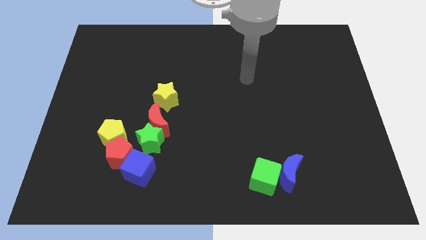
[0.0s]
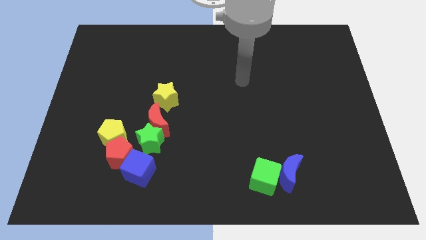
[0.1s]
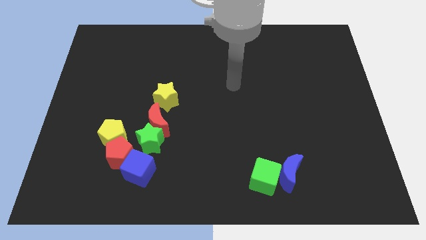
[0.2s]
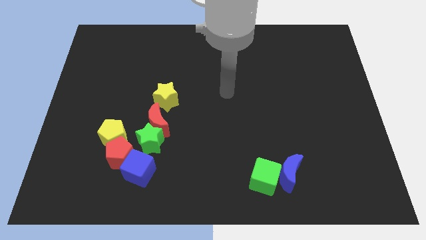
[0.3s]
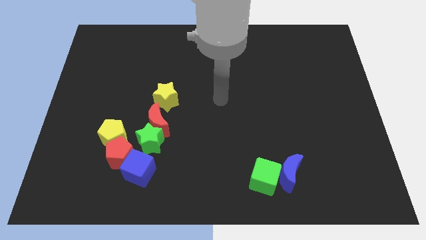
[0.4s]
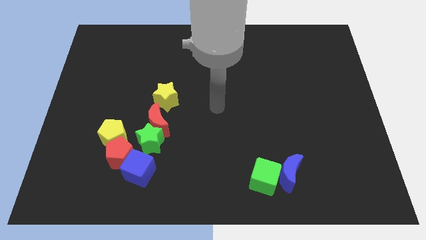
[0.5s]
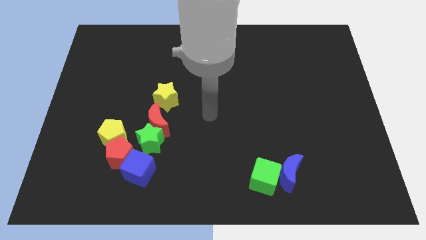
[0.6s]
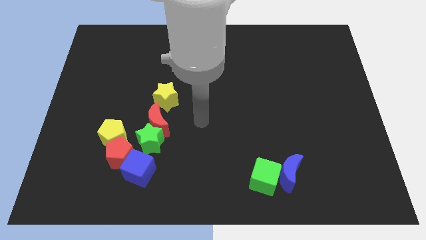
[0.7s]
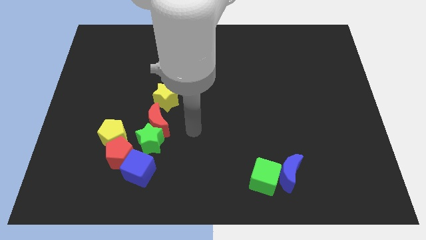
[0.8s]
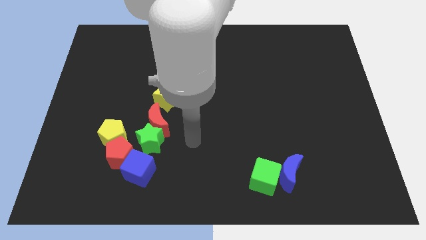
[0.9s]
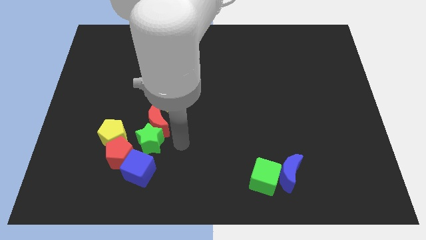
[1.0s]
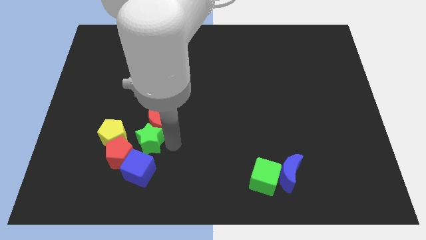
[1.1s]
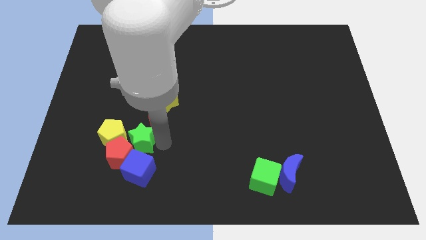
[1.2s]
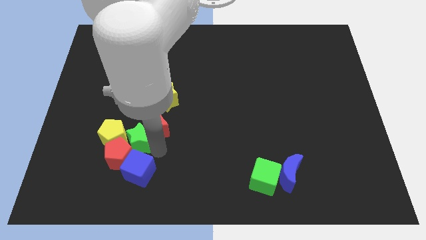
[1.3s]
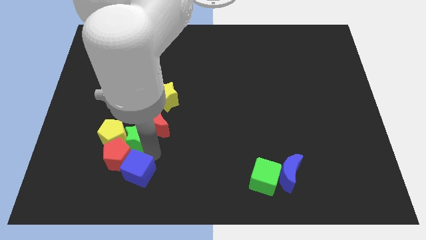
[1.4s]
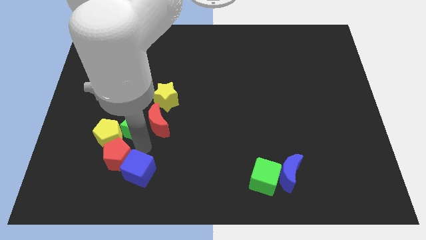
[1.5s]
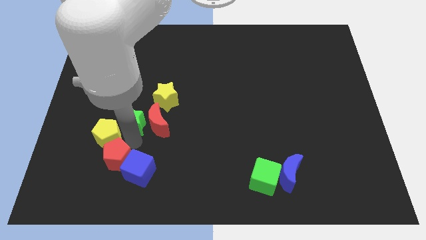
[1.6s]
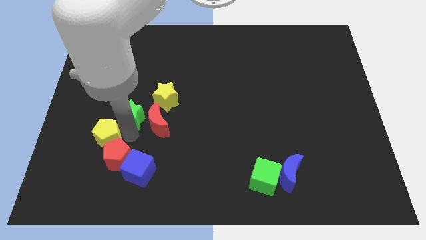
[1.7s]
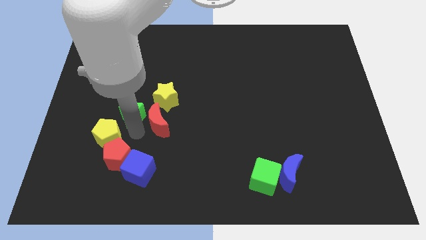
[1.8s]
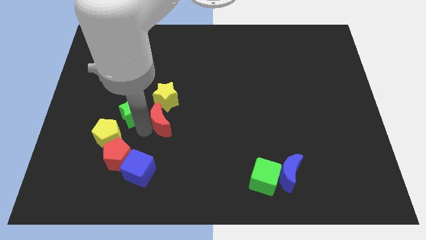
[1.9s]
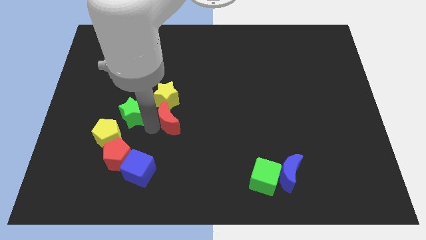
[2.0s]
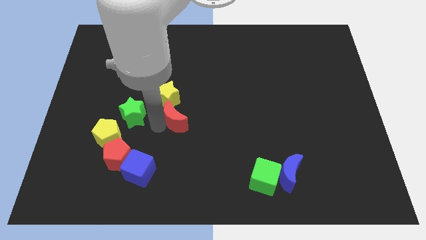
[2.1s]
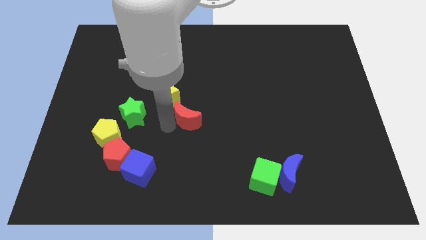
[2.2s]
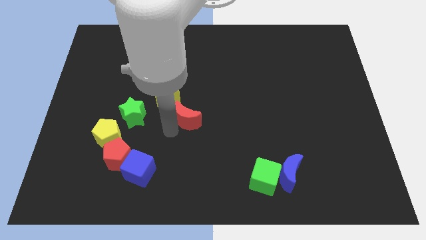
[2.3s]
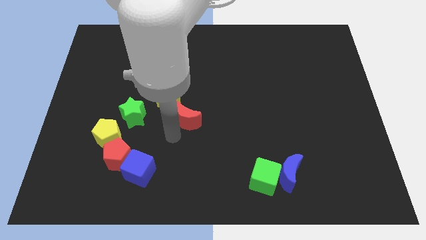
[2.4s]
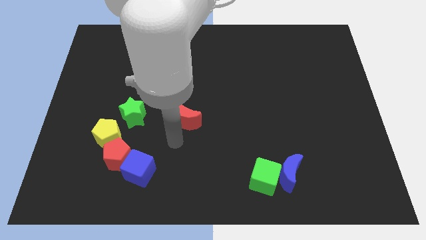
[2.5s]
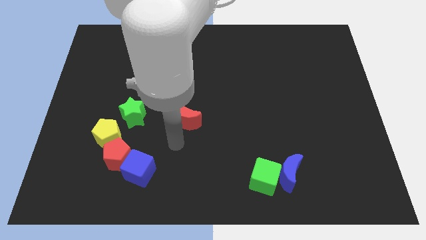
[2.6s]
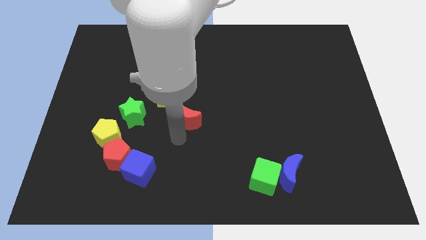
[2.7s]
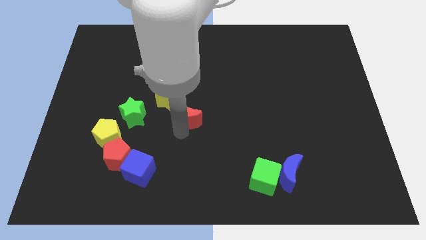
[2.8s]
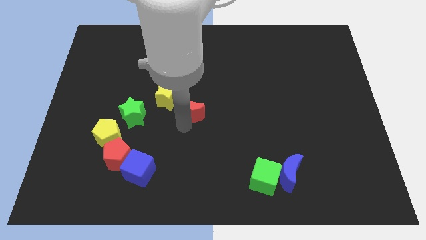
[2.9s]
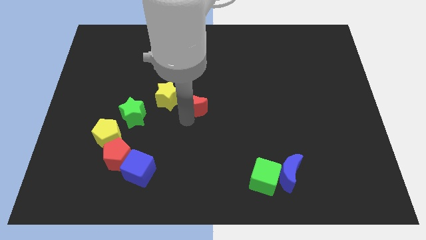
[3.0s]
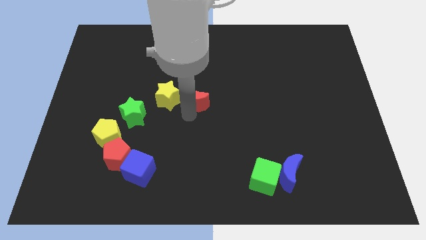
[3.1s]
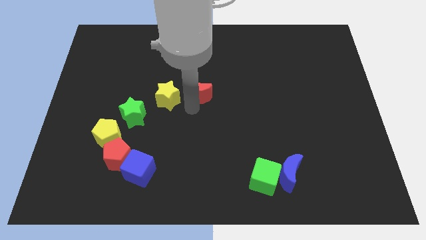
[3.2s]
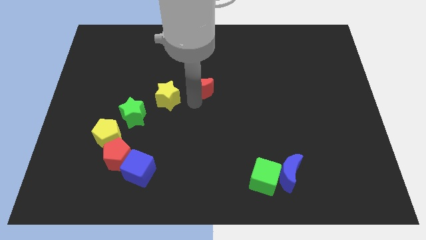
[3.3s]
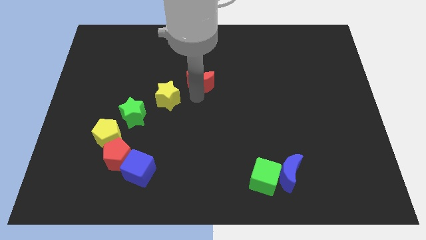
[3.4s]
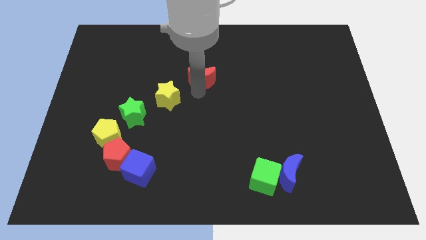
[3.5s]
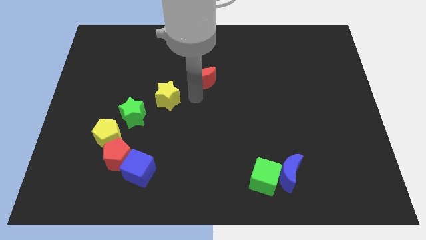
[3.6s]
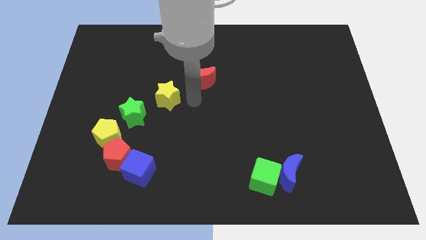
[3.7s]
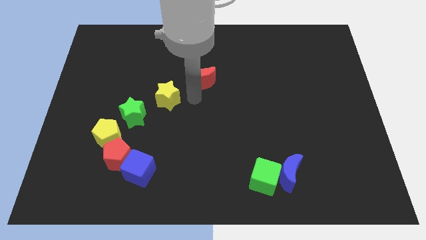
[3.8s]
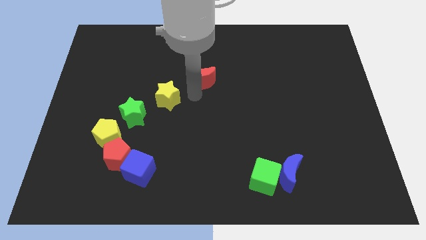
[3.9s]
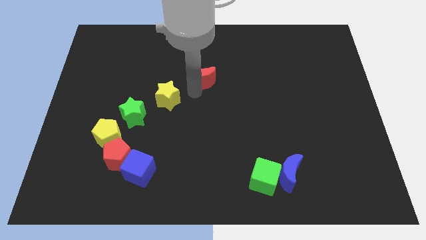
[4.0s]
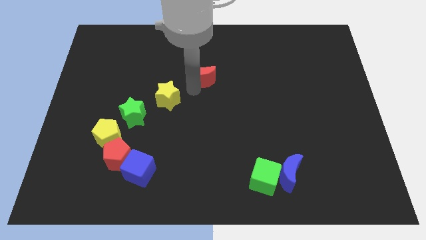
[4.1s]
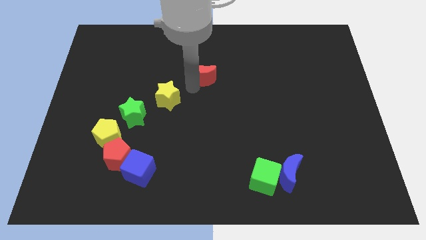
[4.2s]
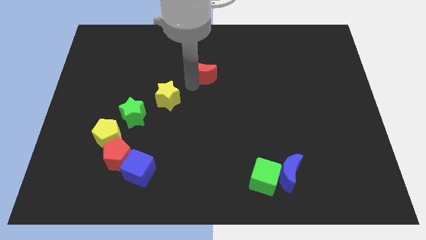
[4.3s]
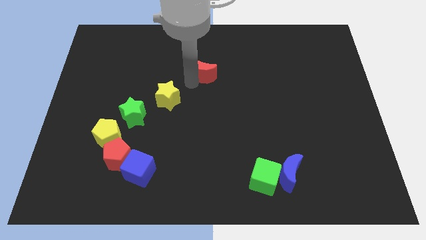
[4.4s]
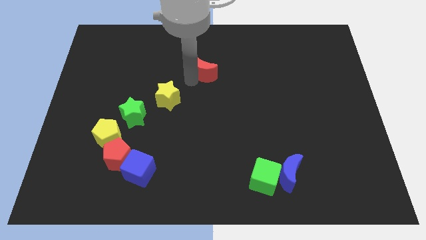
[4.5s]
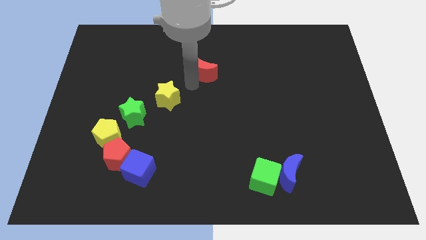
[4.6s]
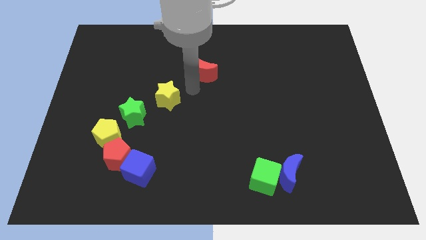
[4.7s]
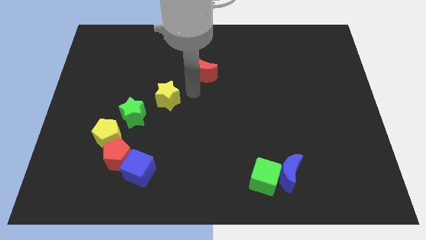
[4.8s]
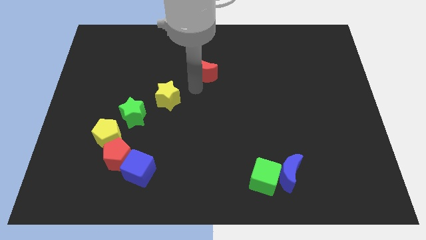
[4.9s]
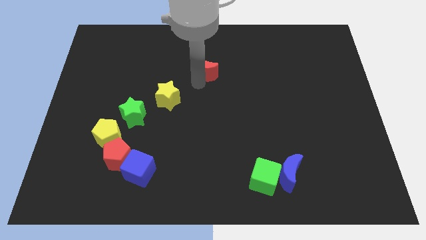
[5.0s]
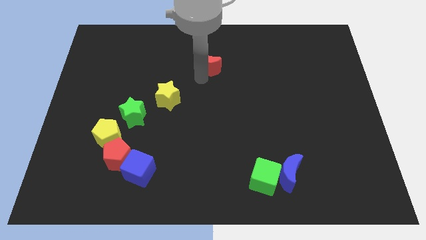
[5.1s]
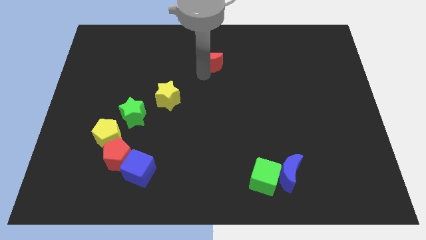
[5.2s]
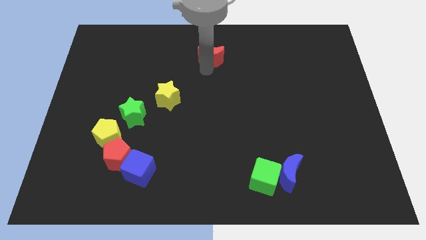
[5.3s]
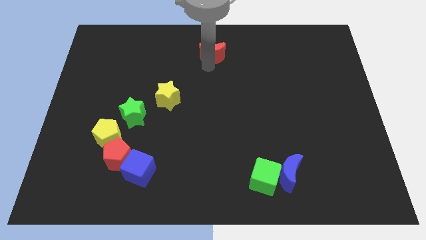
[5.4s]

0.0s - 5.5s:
slide the red moon to the top side

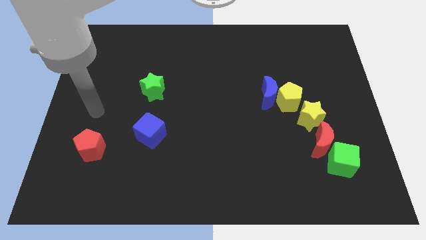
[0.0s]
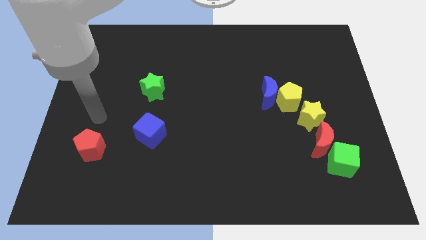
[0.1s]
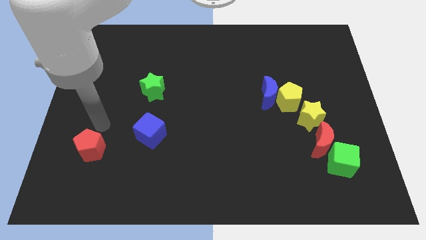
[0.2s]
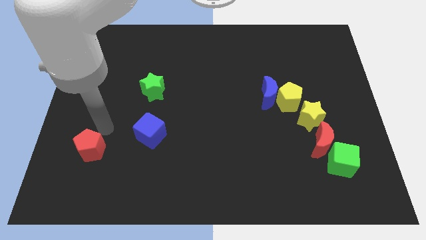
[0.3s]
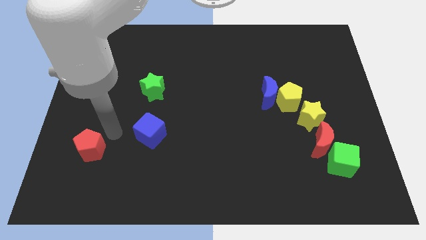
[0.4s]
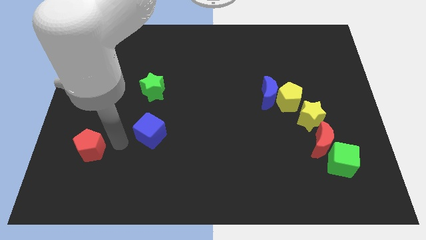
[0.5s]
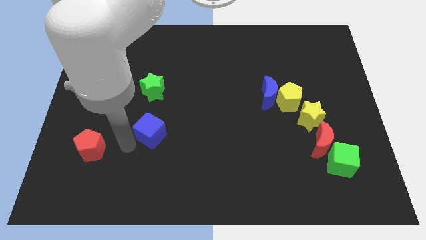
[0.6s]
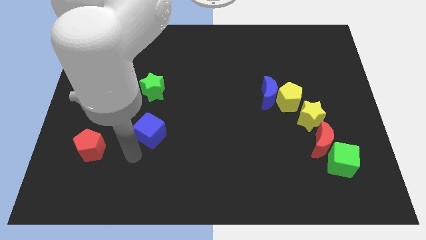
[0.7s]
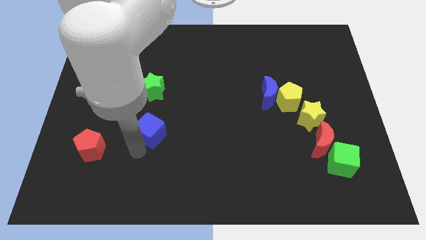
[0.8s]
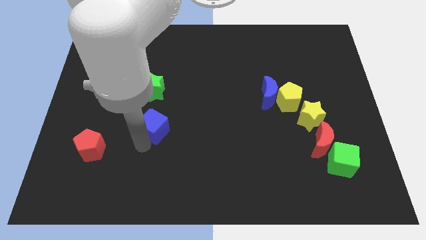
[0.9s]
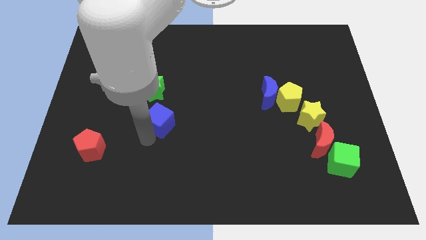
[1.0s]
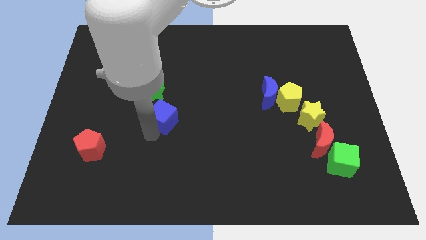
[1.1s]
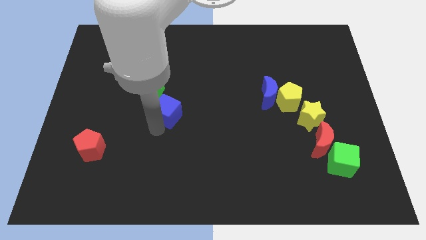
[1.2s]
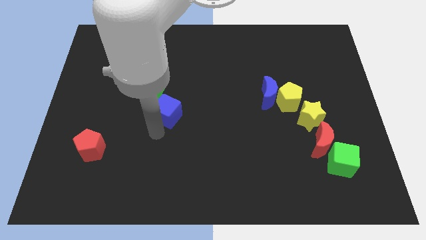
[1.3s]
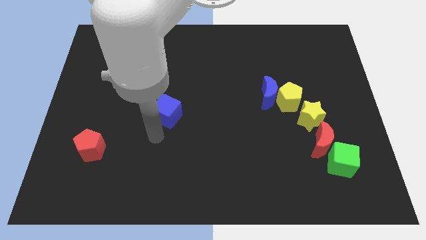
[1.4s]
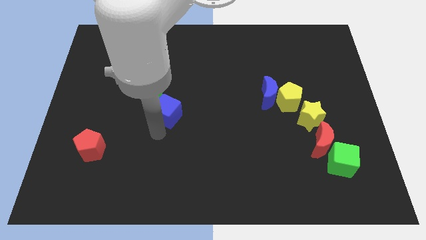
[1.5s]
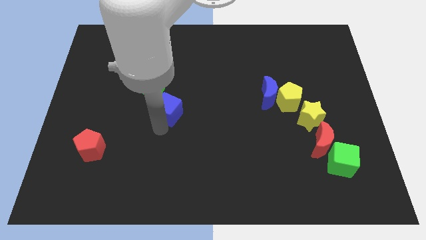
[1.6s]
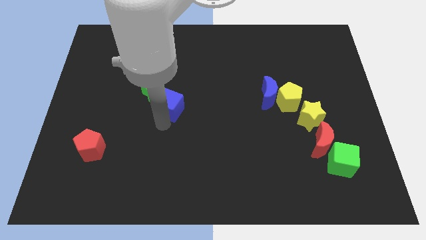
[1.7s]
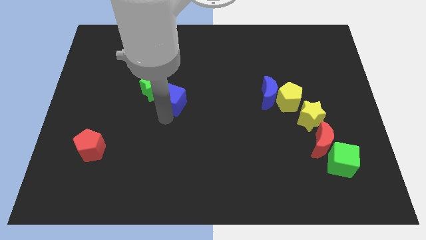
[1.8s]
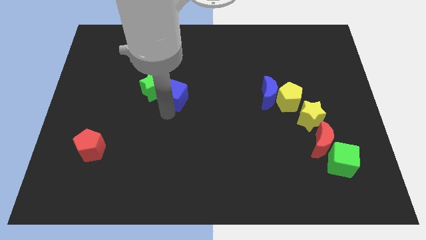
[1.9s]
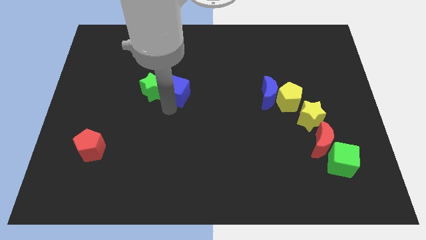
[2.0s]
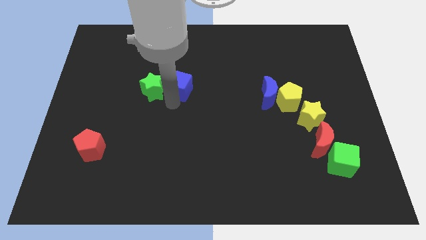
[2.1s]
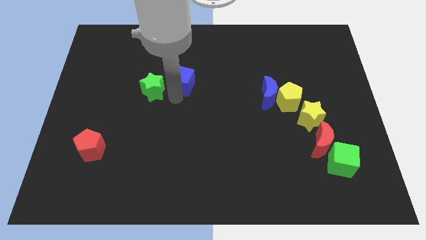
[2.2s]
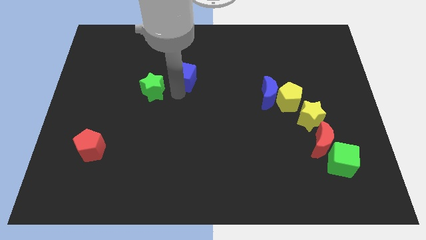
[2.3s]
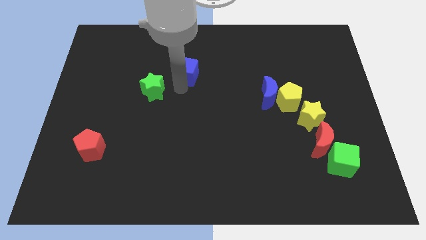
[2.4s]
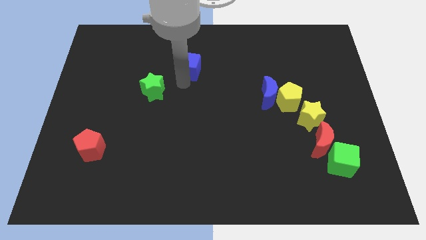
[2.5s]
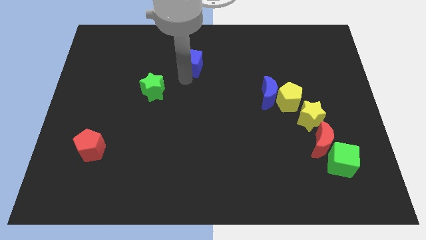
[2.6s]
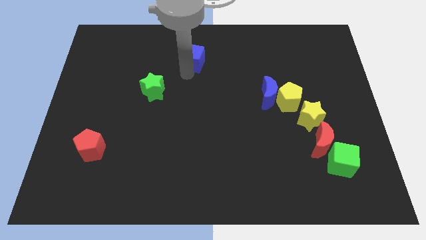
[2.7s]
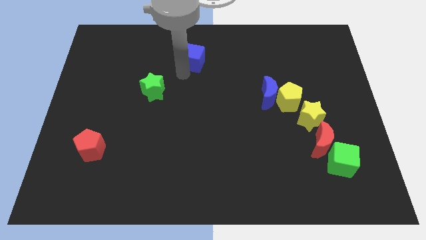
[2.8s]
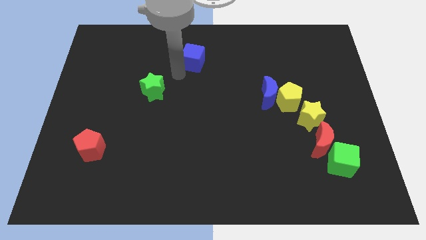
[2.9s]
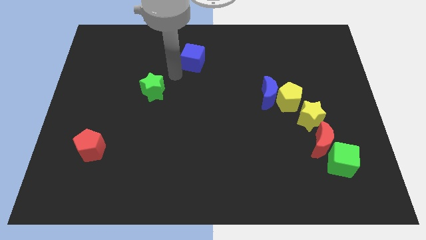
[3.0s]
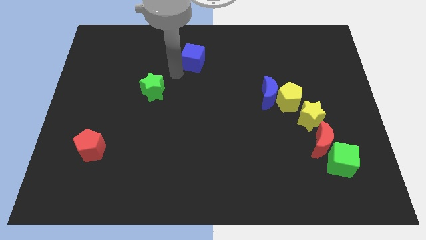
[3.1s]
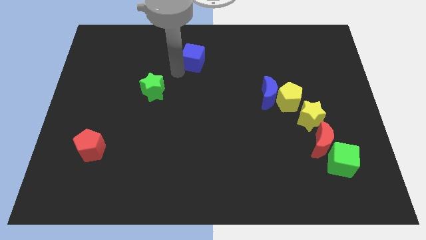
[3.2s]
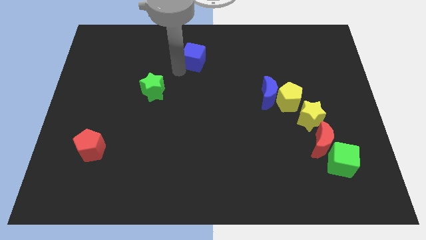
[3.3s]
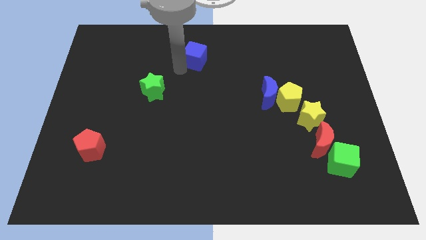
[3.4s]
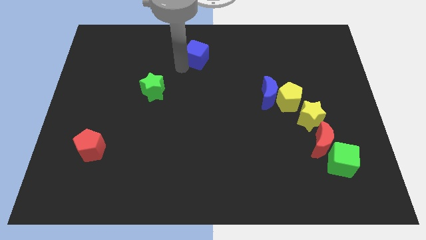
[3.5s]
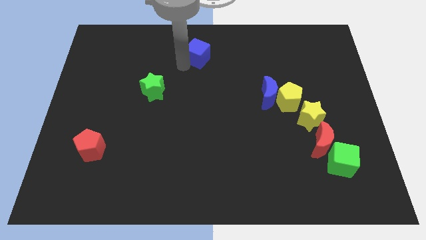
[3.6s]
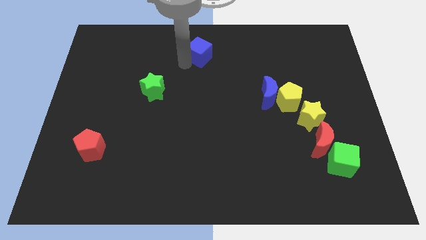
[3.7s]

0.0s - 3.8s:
move the blue cube to the towards your base
